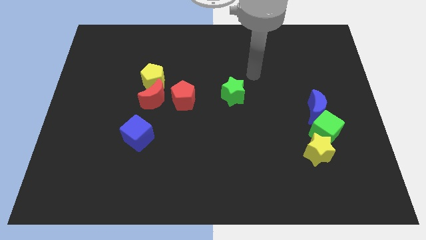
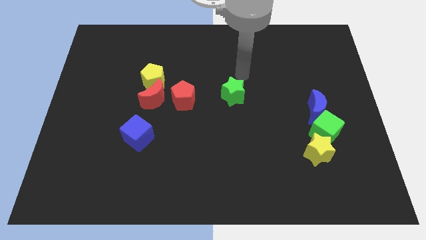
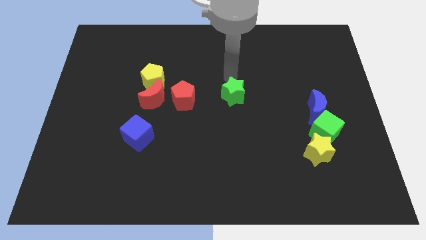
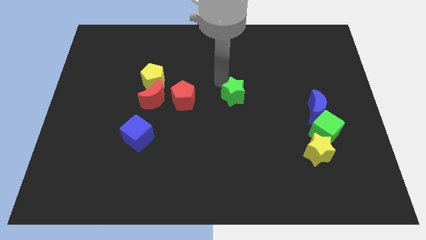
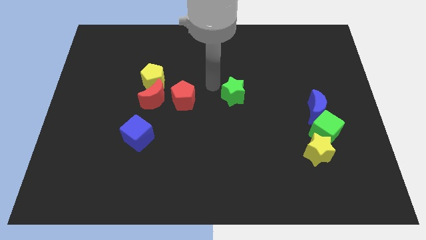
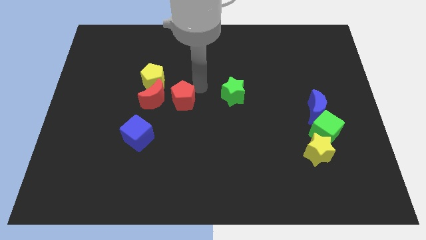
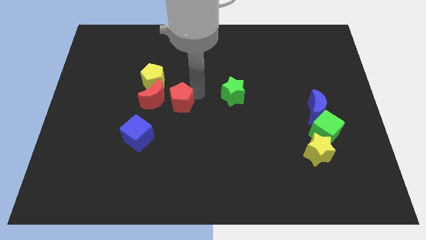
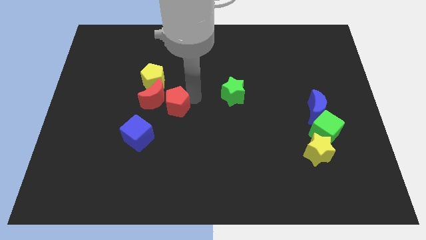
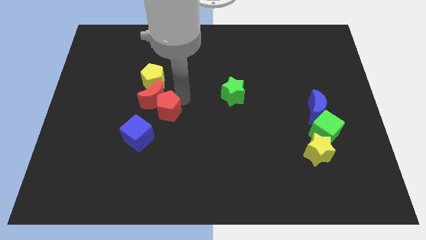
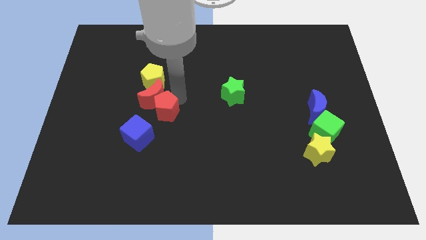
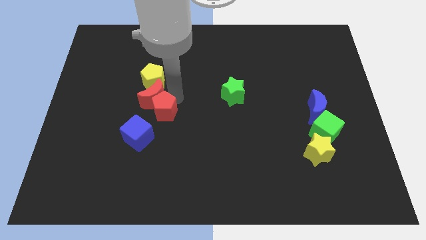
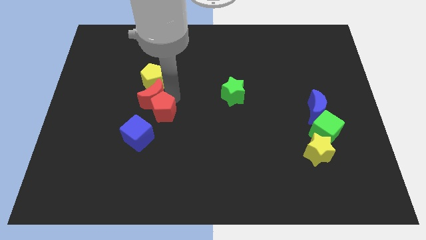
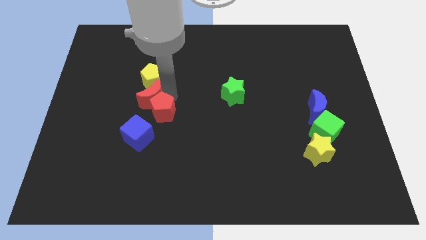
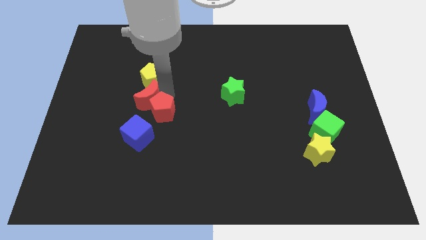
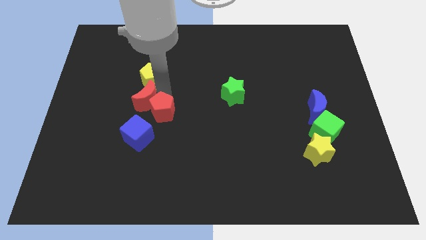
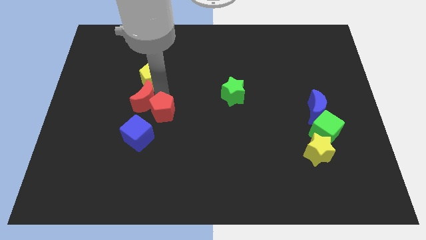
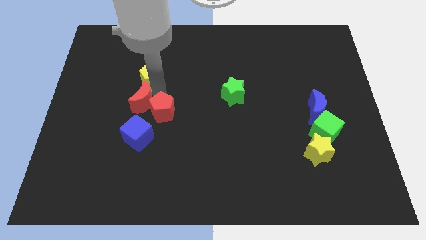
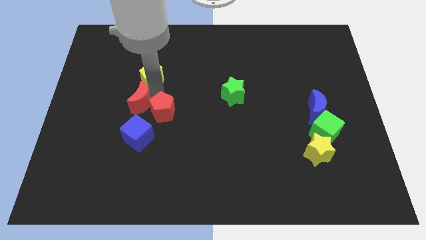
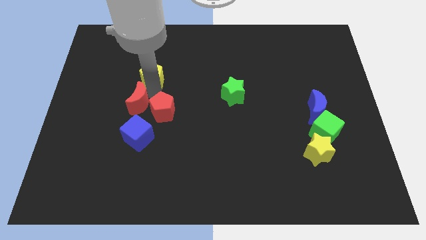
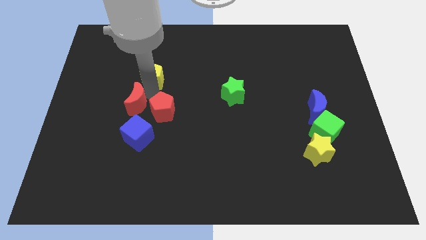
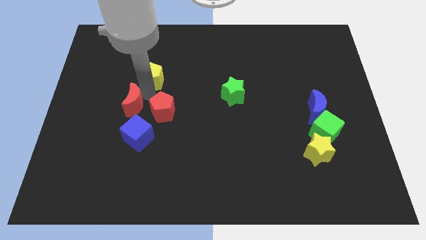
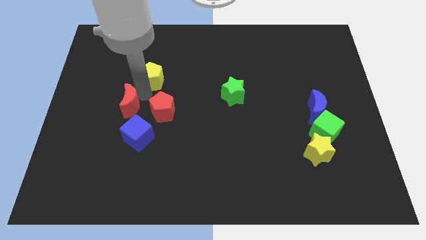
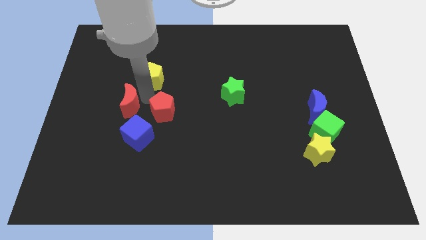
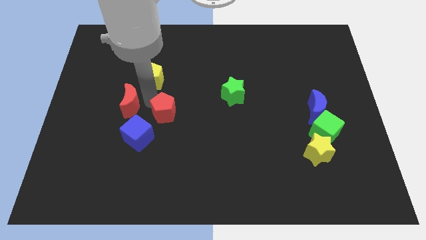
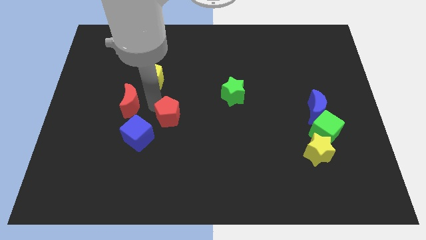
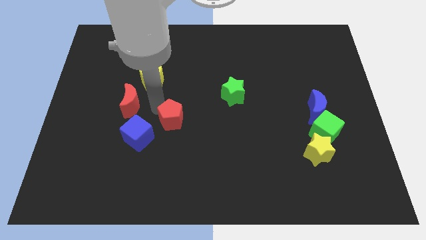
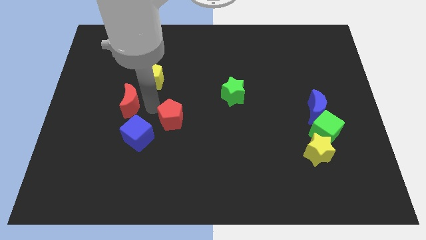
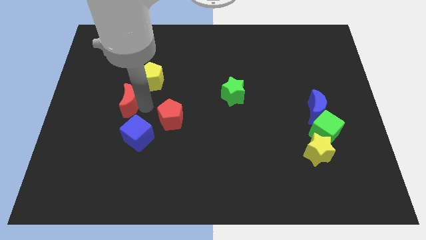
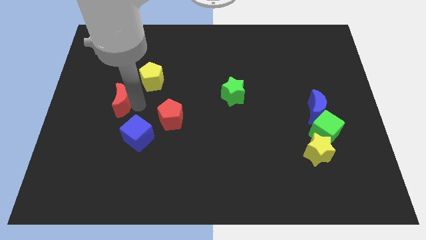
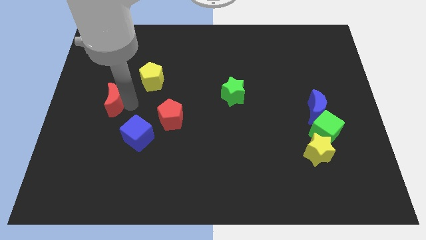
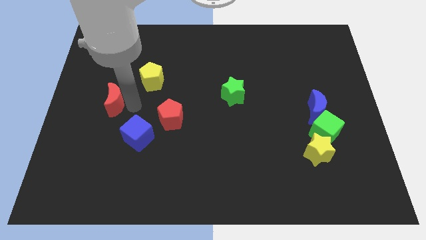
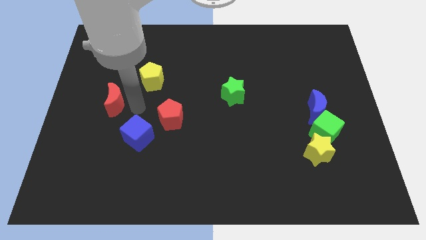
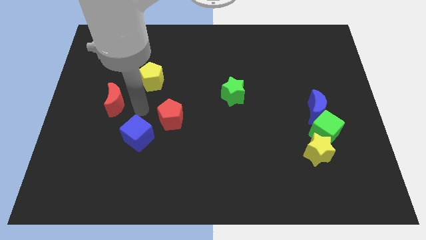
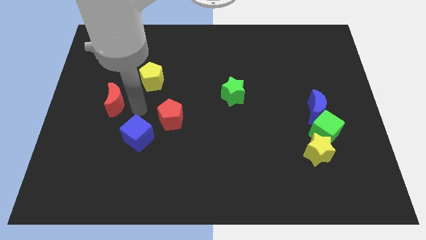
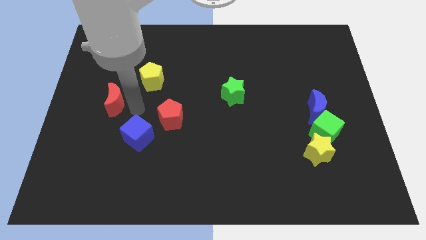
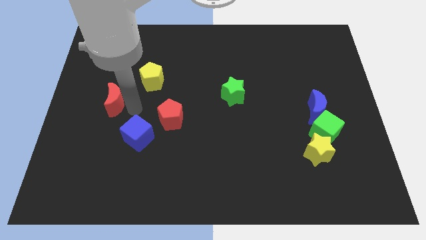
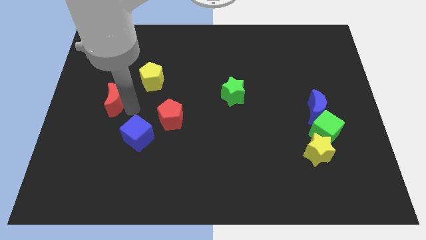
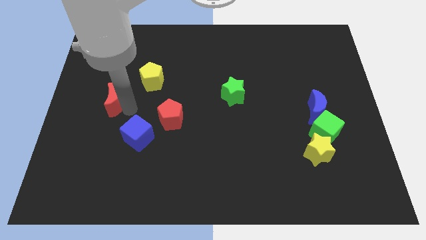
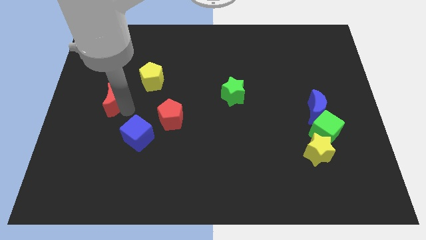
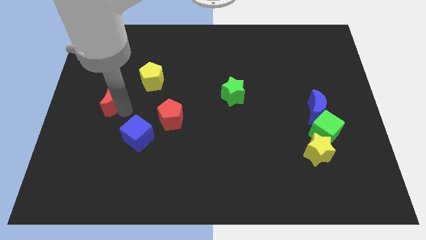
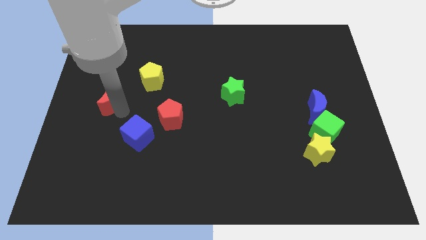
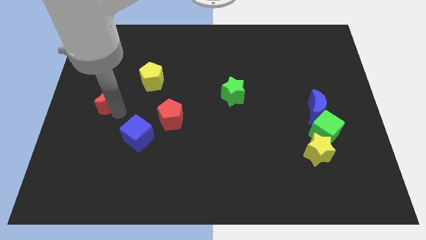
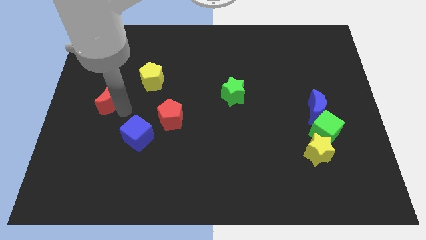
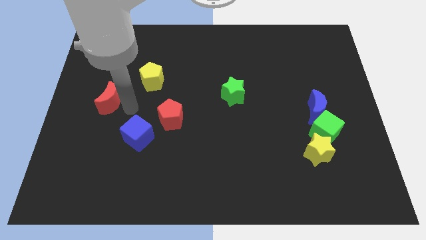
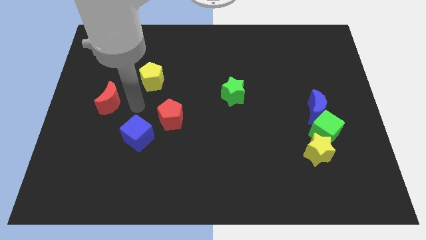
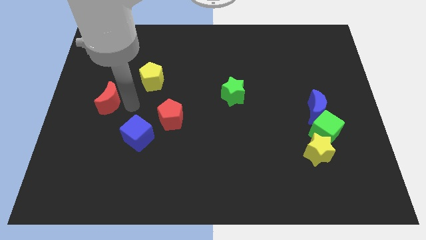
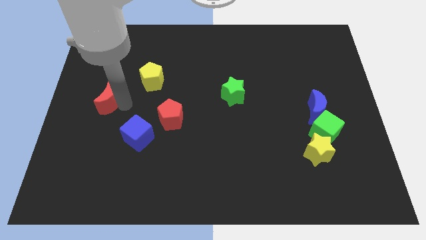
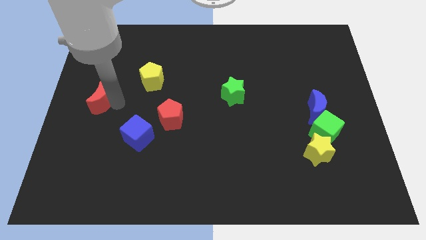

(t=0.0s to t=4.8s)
push the red moon to the left side
